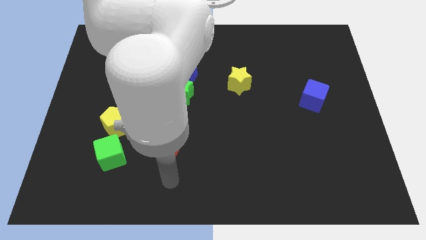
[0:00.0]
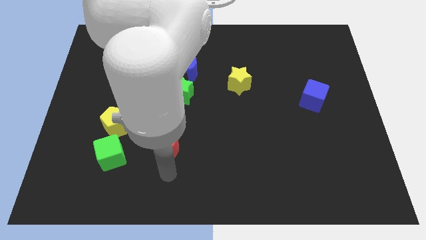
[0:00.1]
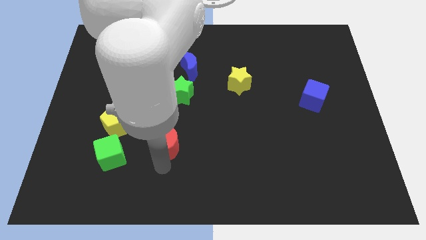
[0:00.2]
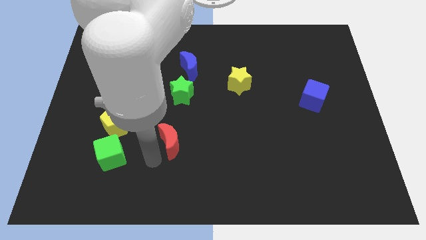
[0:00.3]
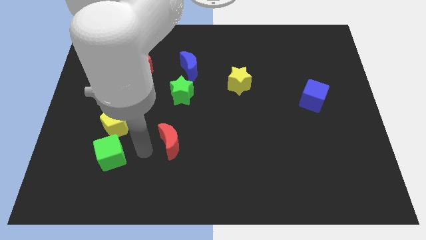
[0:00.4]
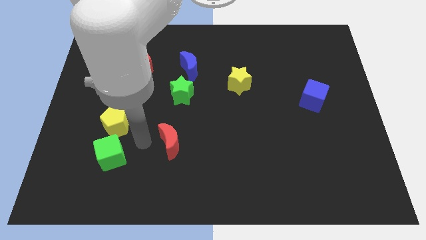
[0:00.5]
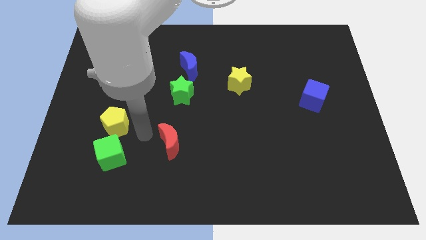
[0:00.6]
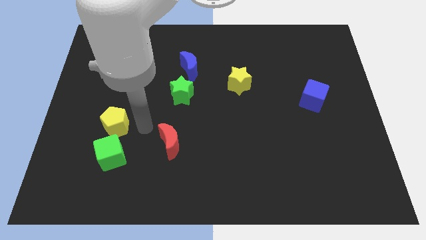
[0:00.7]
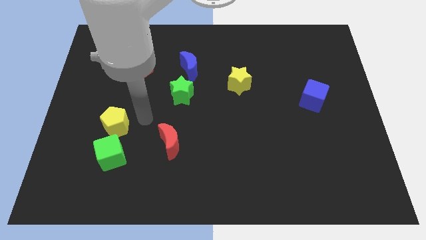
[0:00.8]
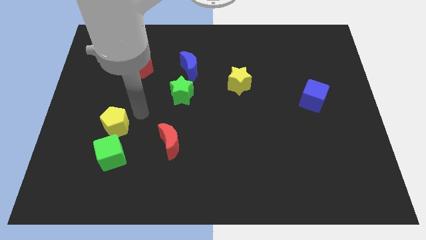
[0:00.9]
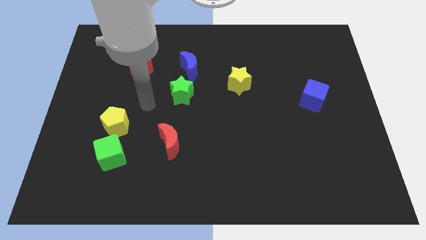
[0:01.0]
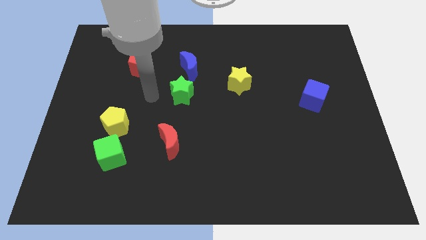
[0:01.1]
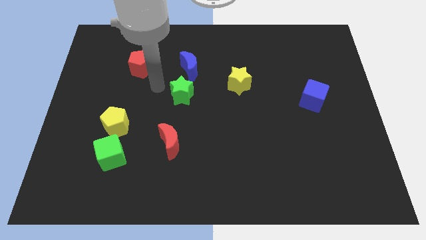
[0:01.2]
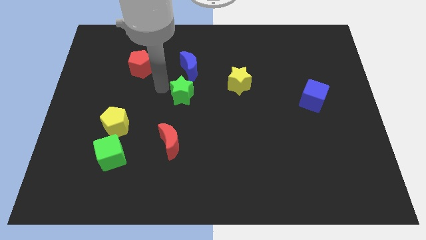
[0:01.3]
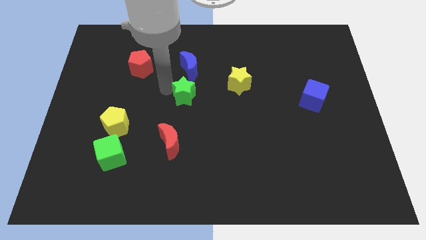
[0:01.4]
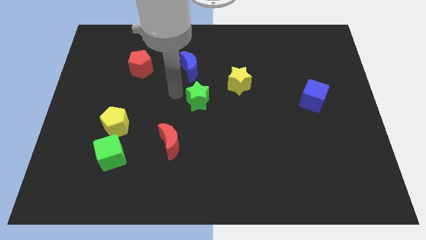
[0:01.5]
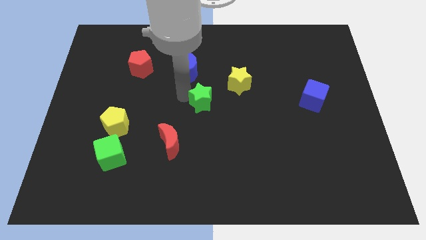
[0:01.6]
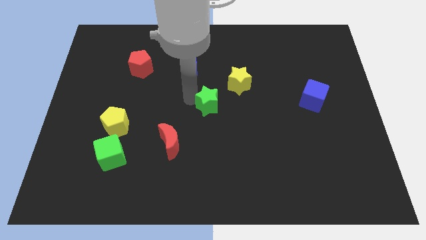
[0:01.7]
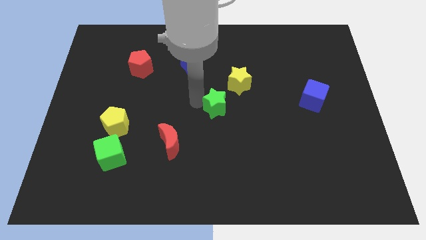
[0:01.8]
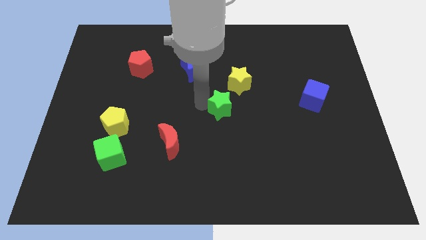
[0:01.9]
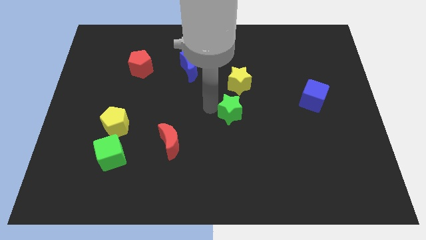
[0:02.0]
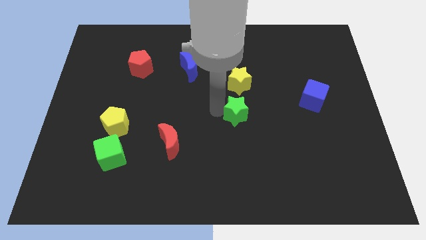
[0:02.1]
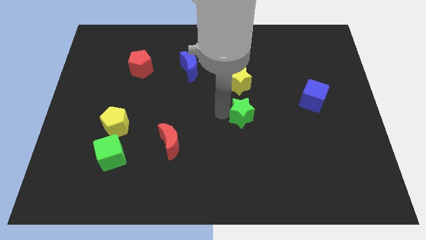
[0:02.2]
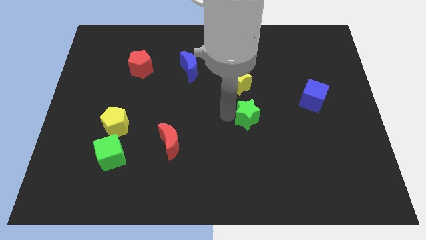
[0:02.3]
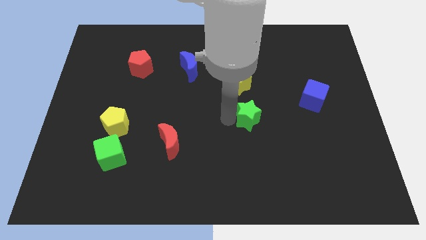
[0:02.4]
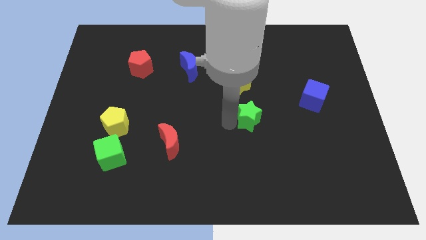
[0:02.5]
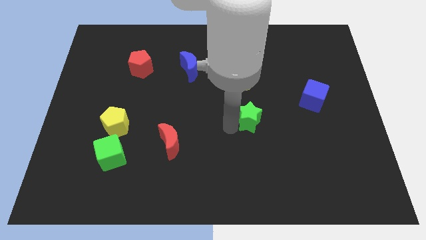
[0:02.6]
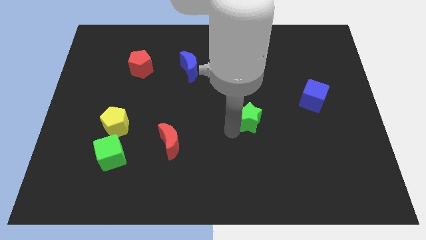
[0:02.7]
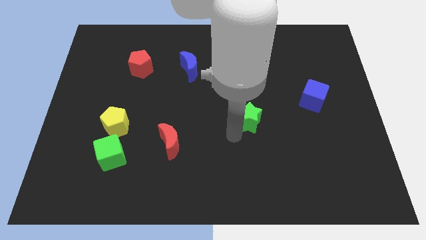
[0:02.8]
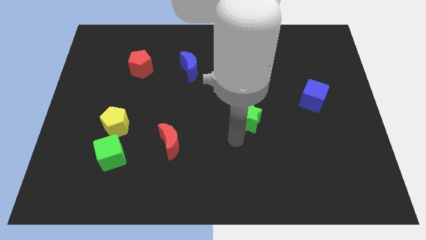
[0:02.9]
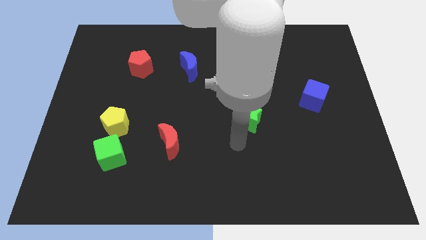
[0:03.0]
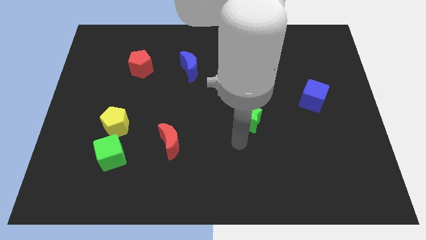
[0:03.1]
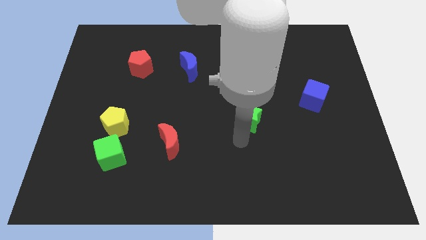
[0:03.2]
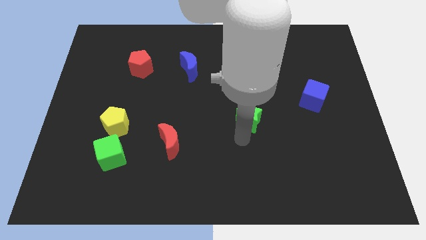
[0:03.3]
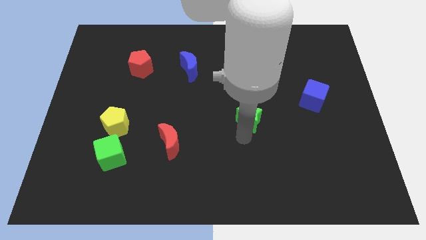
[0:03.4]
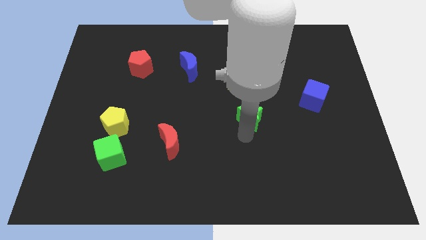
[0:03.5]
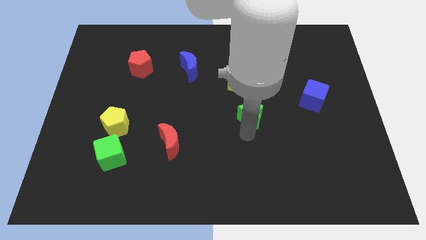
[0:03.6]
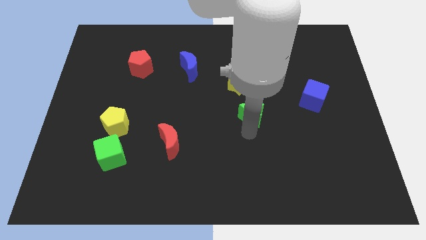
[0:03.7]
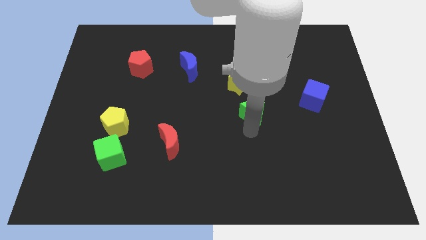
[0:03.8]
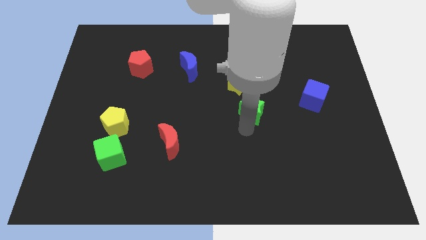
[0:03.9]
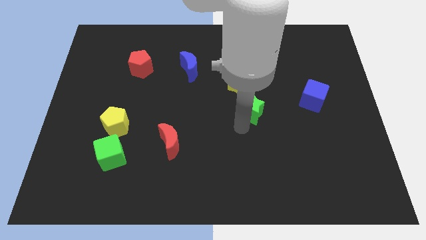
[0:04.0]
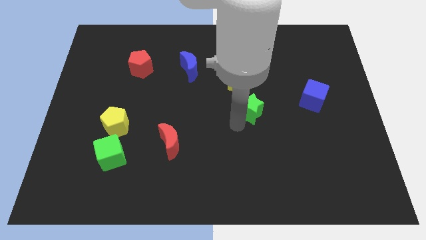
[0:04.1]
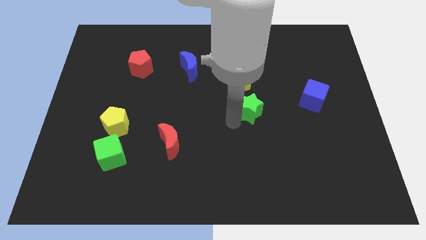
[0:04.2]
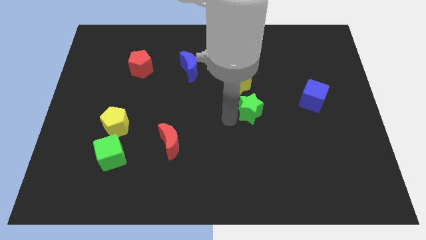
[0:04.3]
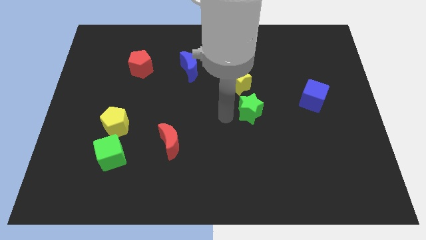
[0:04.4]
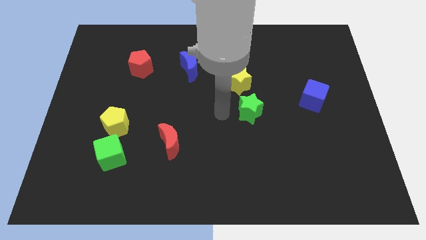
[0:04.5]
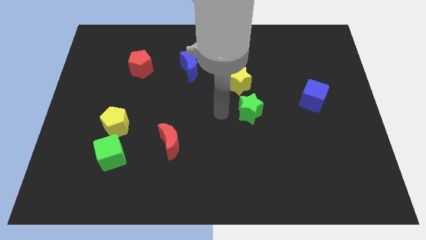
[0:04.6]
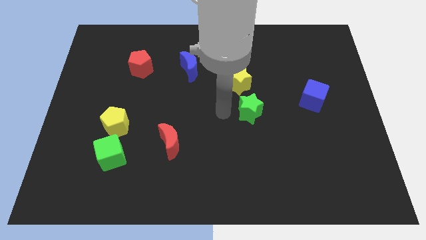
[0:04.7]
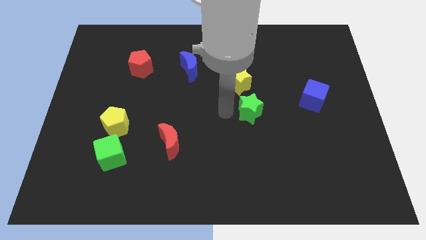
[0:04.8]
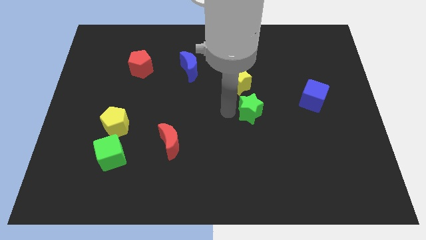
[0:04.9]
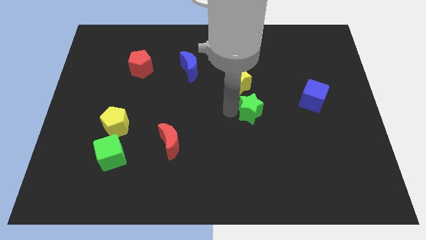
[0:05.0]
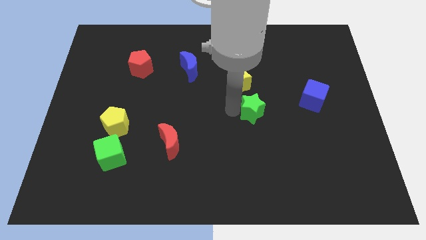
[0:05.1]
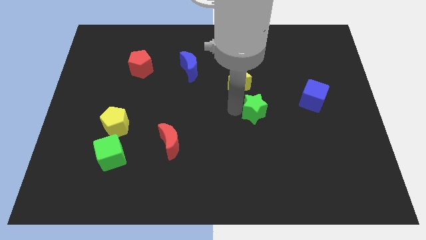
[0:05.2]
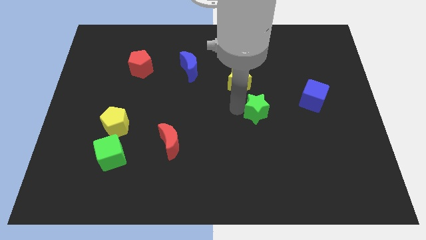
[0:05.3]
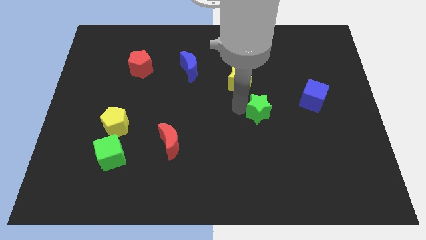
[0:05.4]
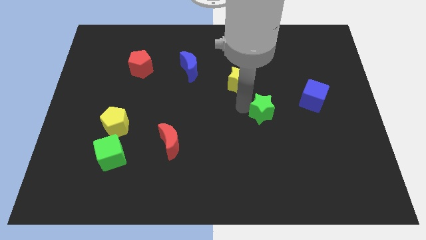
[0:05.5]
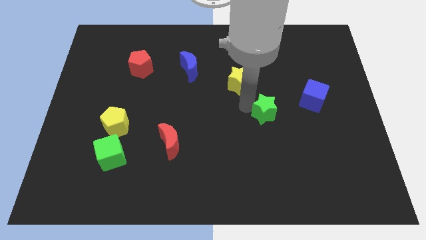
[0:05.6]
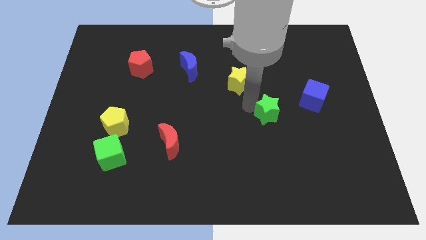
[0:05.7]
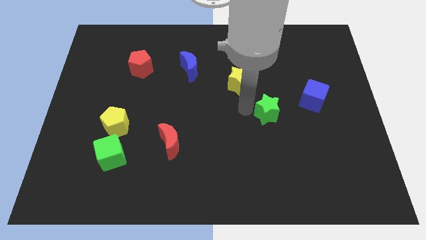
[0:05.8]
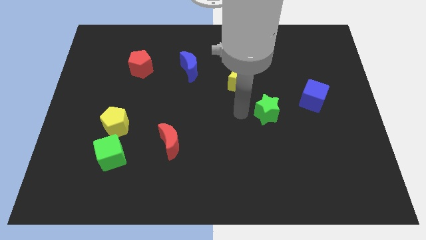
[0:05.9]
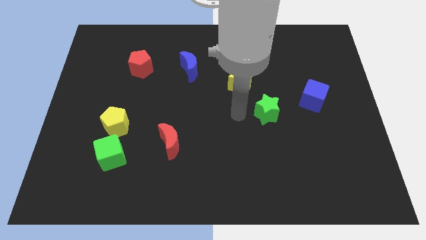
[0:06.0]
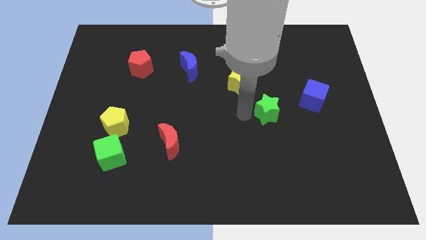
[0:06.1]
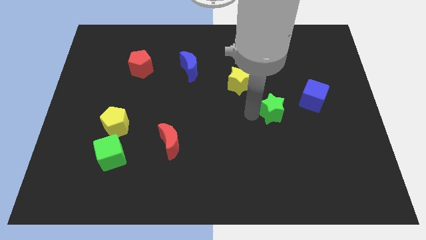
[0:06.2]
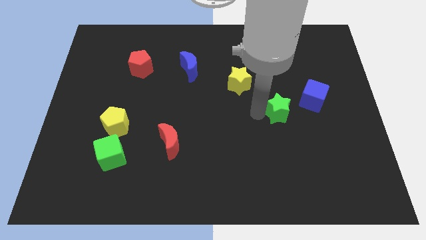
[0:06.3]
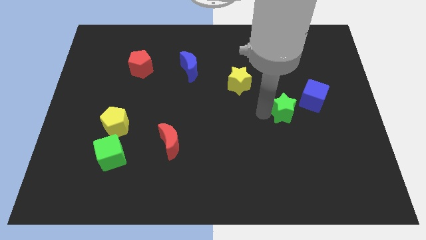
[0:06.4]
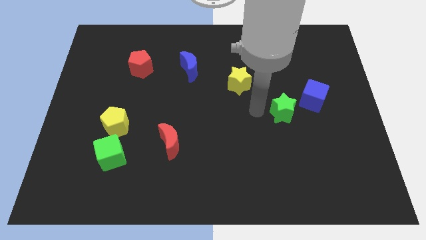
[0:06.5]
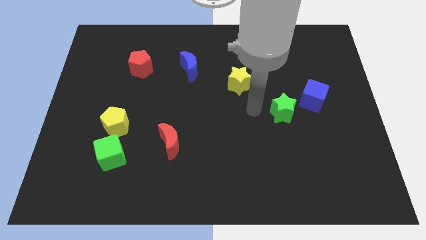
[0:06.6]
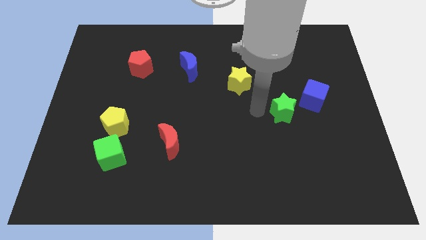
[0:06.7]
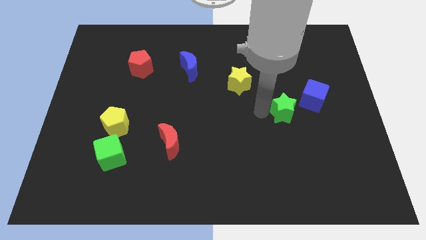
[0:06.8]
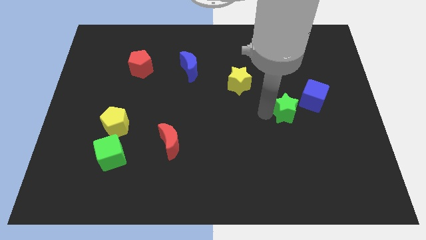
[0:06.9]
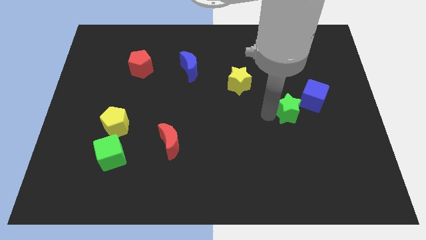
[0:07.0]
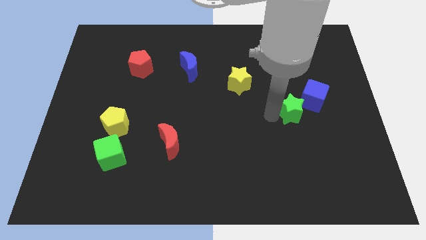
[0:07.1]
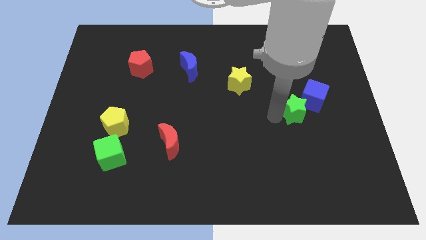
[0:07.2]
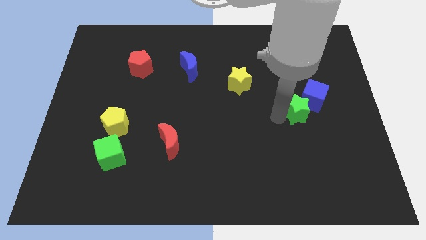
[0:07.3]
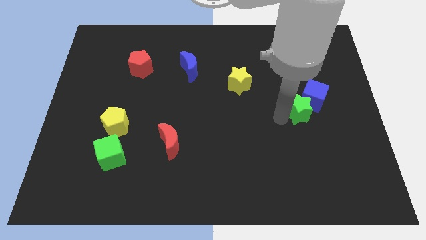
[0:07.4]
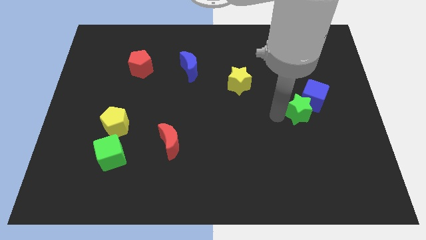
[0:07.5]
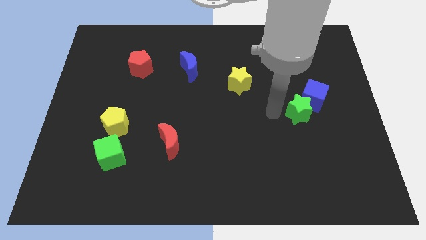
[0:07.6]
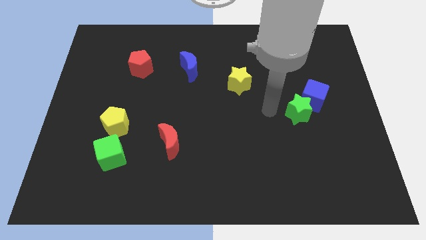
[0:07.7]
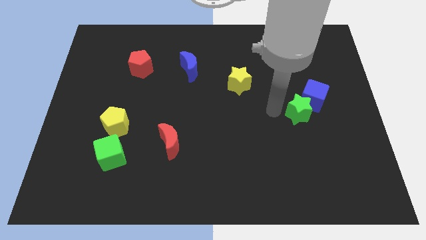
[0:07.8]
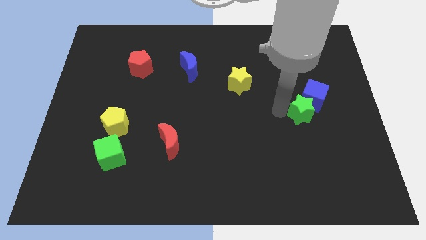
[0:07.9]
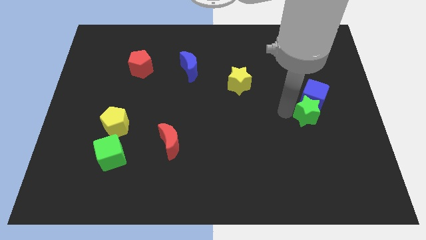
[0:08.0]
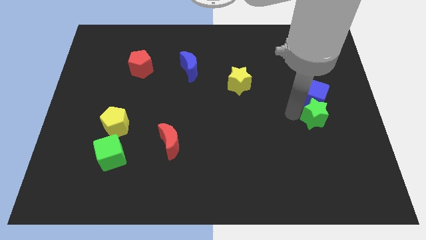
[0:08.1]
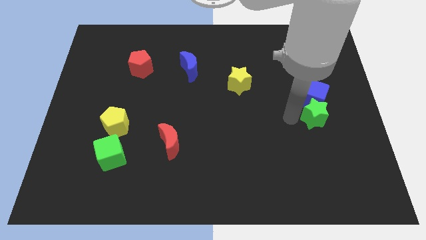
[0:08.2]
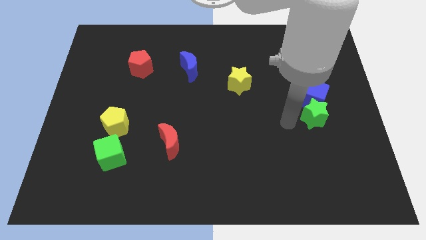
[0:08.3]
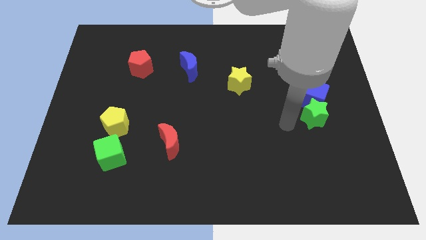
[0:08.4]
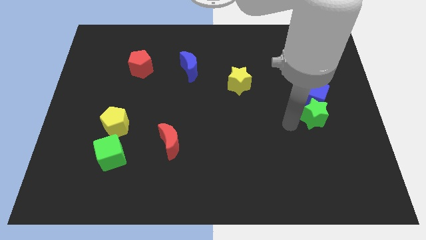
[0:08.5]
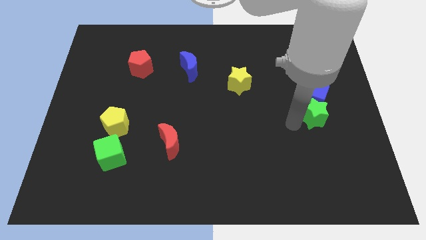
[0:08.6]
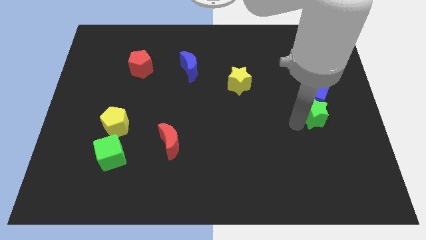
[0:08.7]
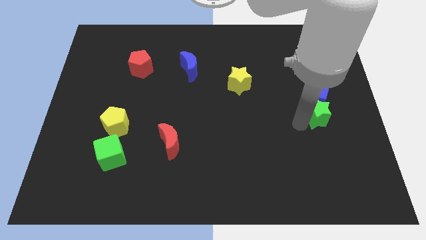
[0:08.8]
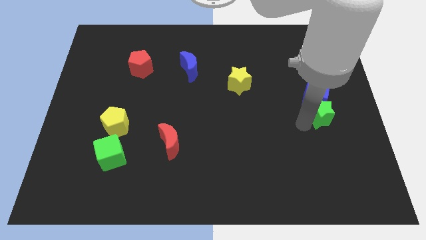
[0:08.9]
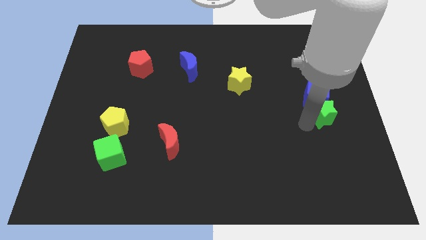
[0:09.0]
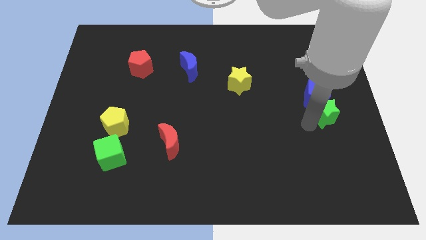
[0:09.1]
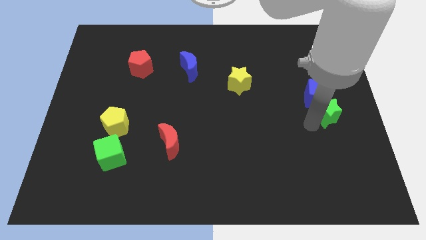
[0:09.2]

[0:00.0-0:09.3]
move the green star to the right side of the board
